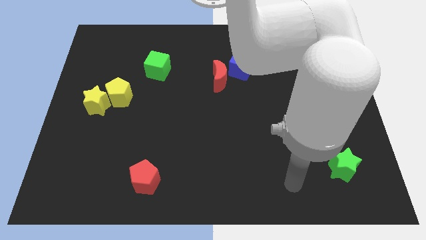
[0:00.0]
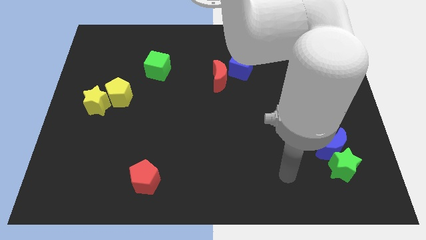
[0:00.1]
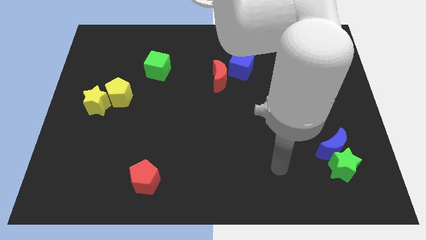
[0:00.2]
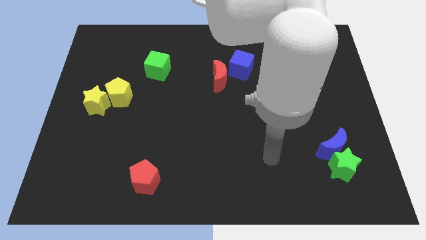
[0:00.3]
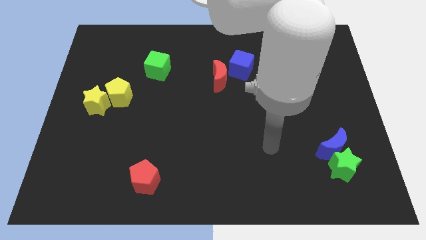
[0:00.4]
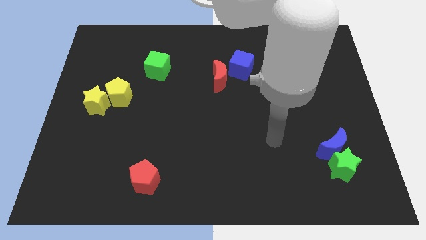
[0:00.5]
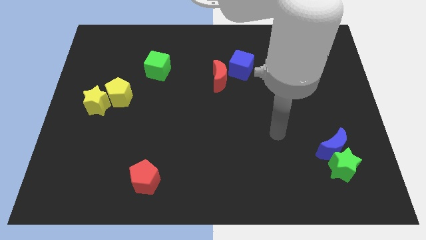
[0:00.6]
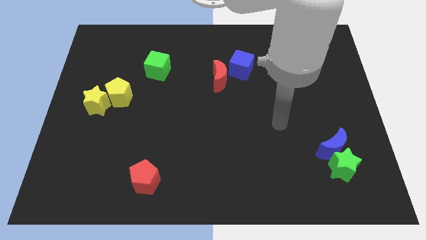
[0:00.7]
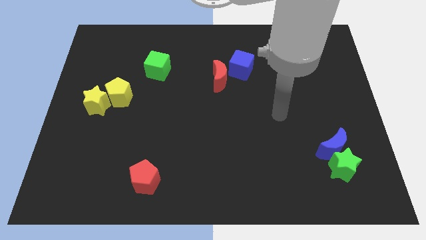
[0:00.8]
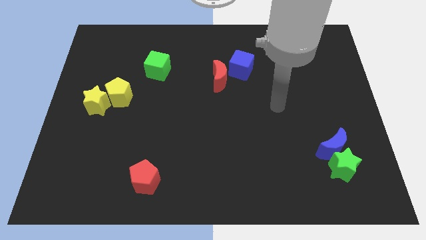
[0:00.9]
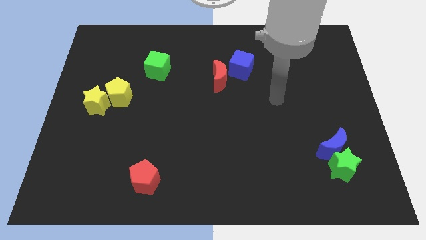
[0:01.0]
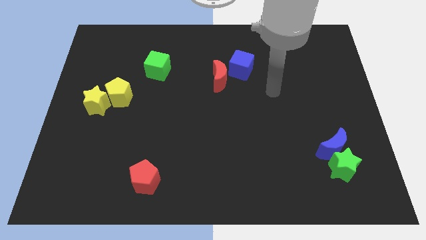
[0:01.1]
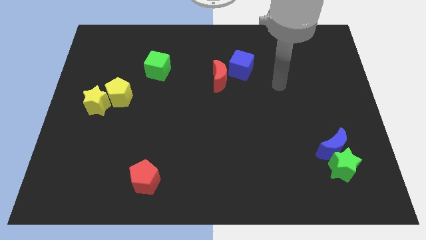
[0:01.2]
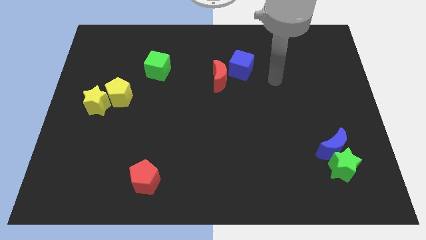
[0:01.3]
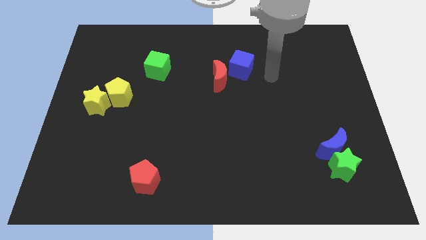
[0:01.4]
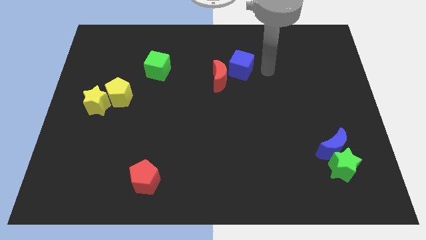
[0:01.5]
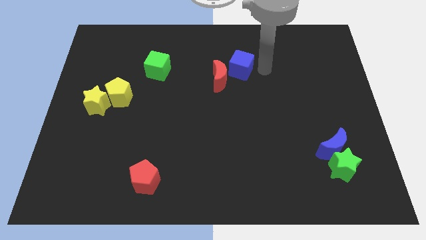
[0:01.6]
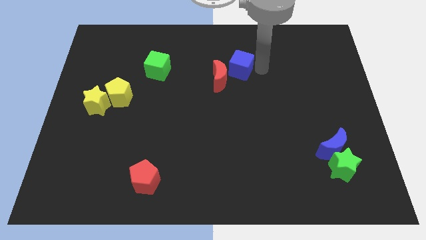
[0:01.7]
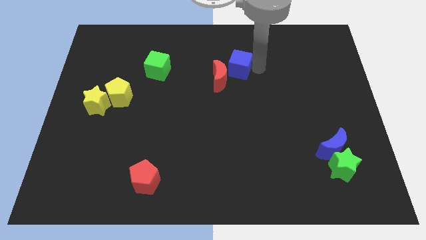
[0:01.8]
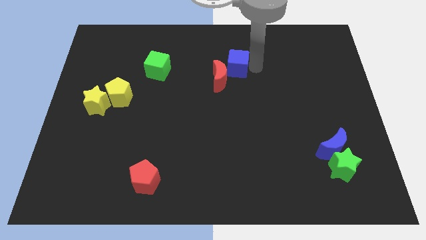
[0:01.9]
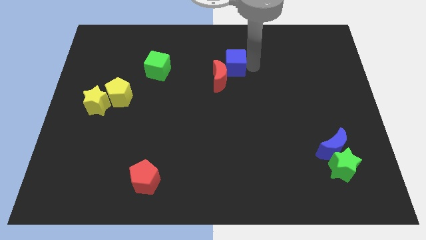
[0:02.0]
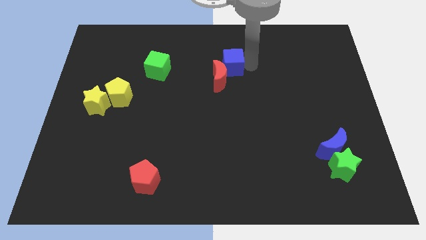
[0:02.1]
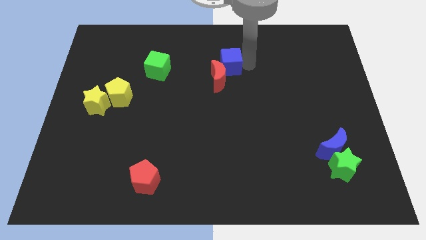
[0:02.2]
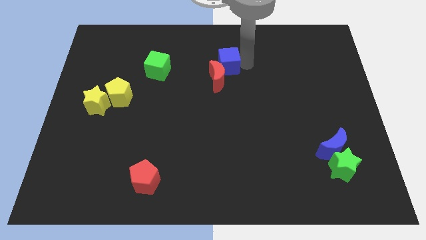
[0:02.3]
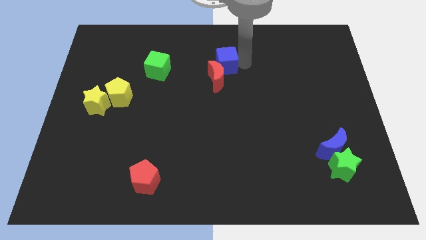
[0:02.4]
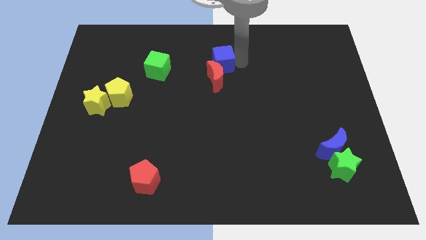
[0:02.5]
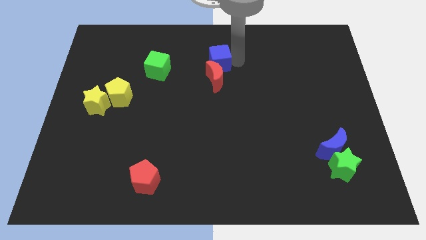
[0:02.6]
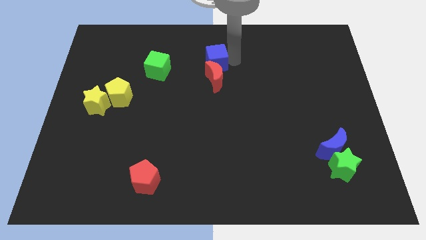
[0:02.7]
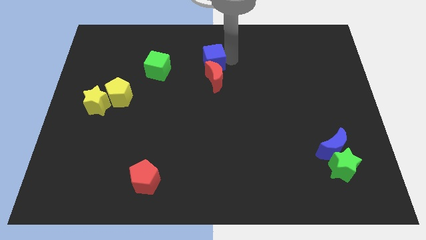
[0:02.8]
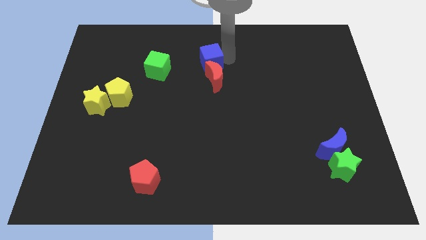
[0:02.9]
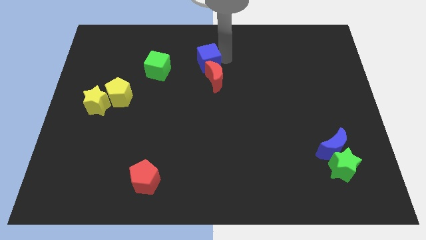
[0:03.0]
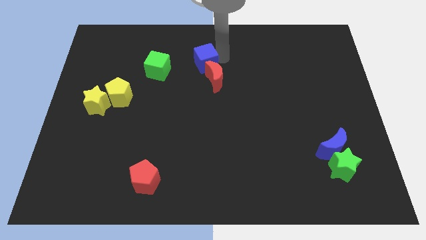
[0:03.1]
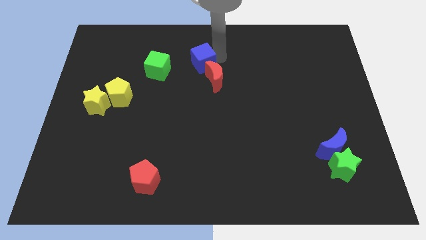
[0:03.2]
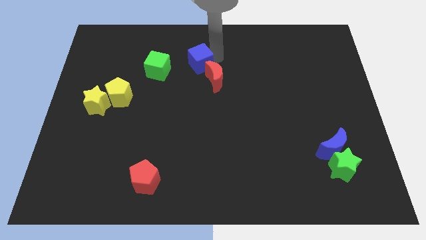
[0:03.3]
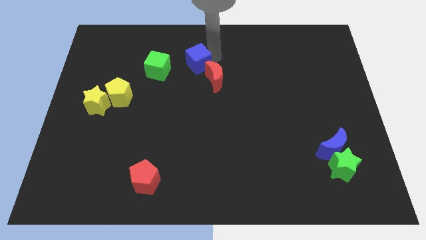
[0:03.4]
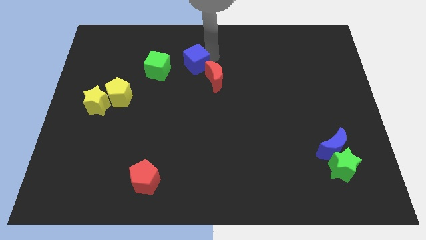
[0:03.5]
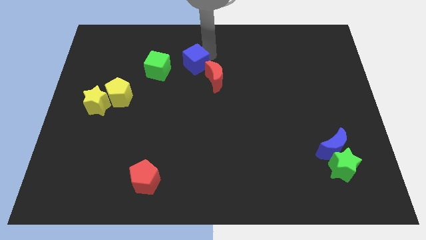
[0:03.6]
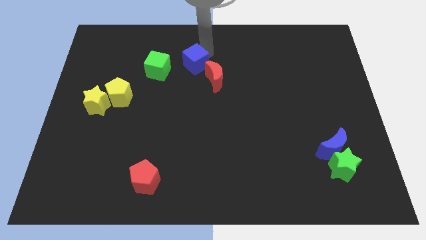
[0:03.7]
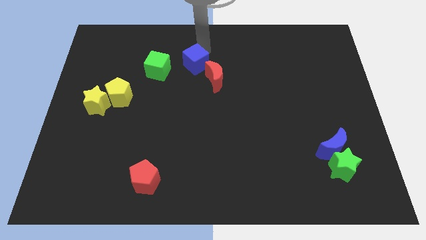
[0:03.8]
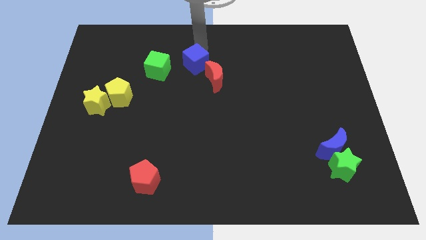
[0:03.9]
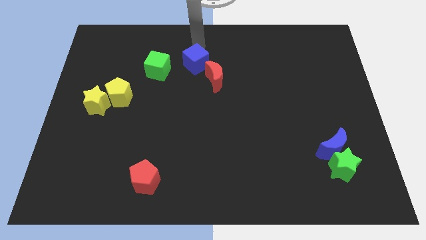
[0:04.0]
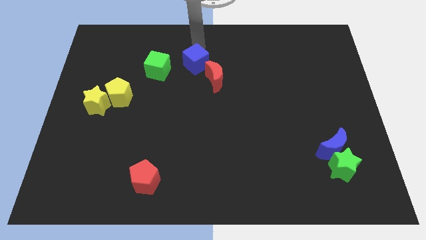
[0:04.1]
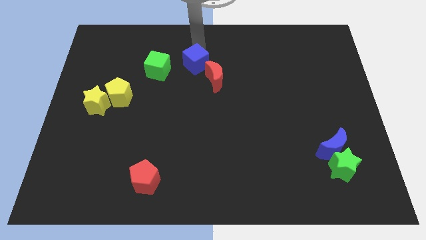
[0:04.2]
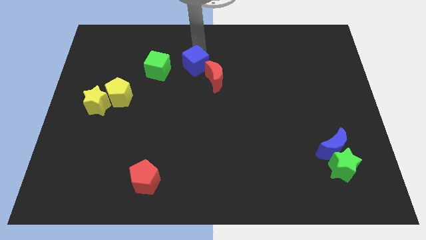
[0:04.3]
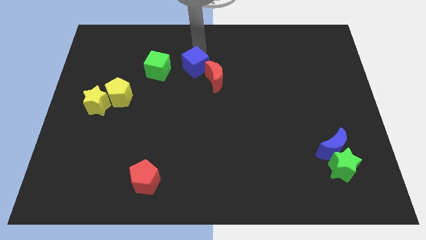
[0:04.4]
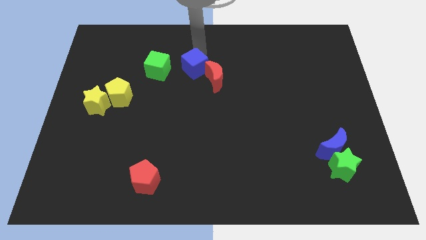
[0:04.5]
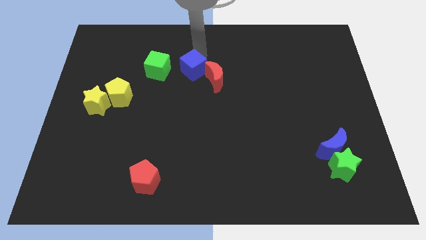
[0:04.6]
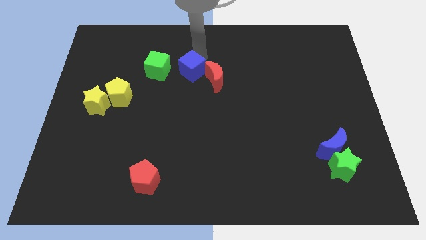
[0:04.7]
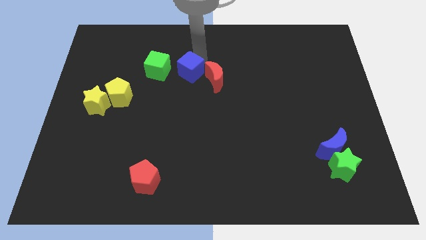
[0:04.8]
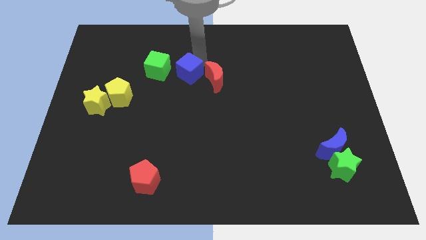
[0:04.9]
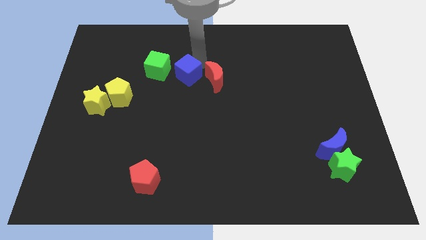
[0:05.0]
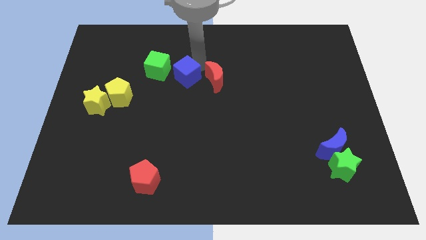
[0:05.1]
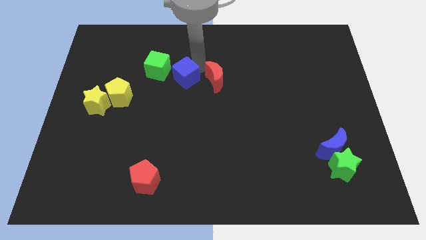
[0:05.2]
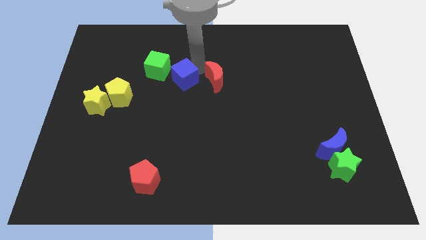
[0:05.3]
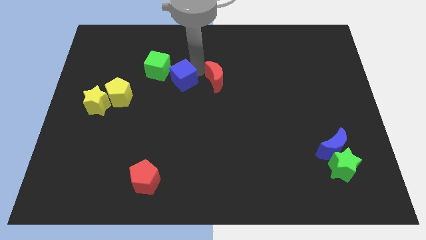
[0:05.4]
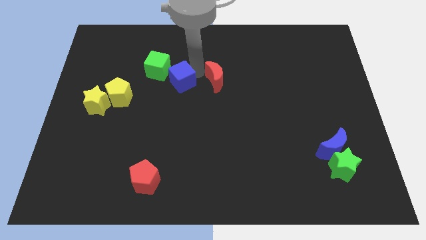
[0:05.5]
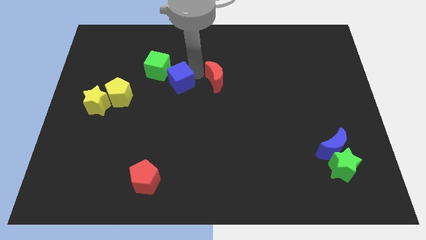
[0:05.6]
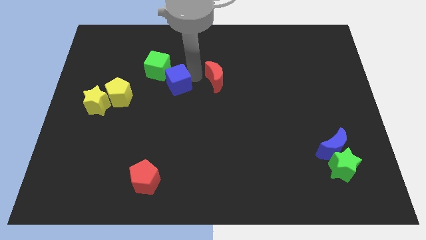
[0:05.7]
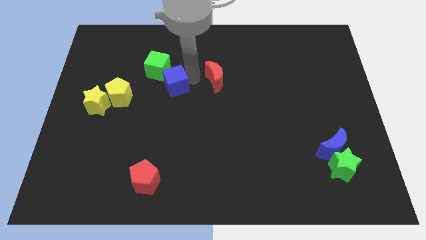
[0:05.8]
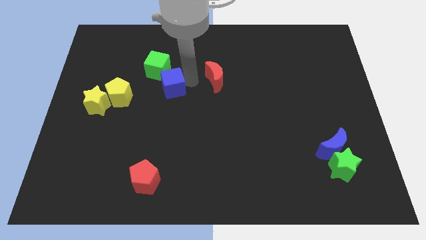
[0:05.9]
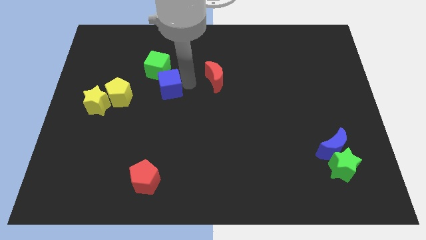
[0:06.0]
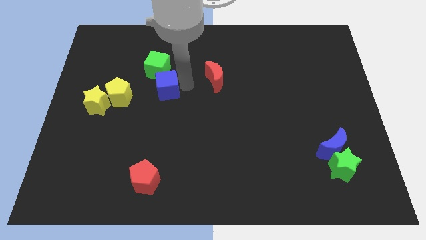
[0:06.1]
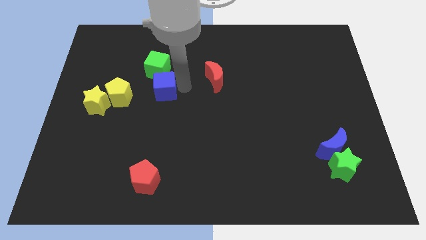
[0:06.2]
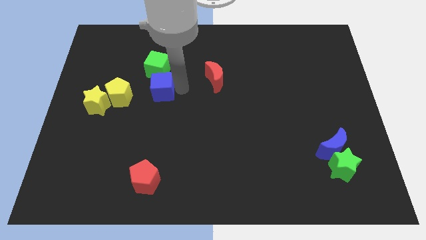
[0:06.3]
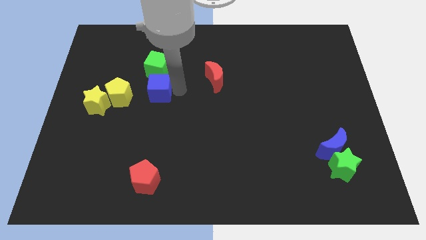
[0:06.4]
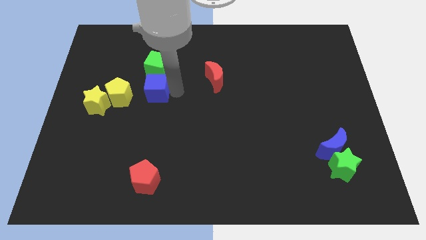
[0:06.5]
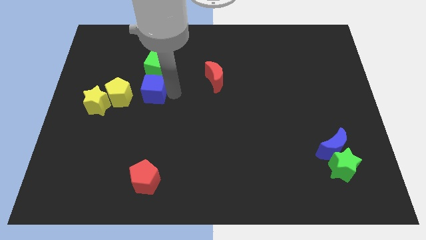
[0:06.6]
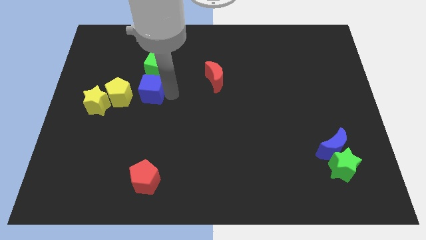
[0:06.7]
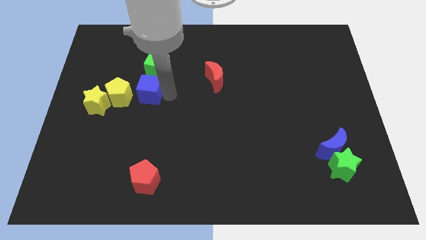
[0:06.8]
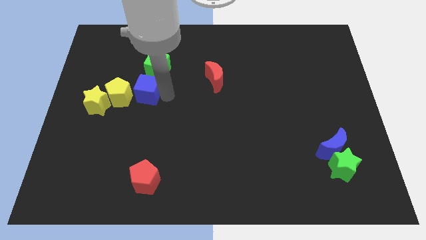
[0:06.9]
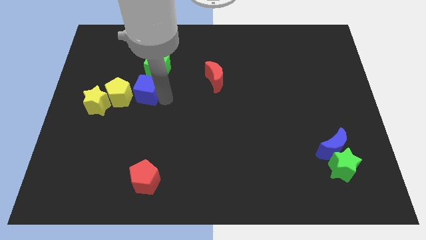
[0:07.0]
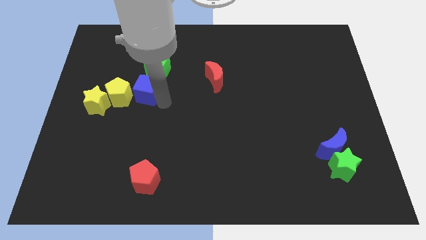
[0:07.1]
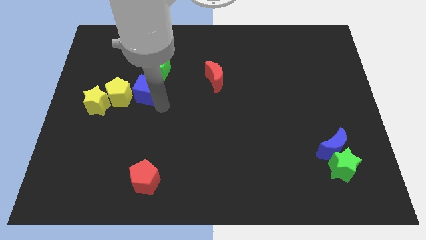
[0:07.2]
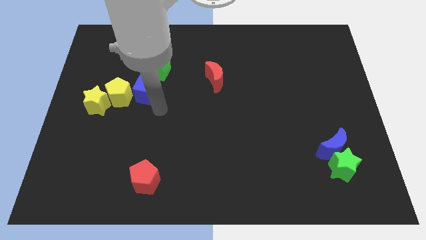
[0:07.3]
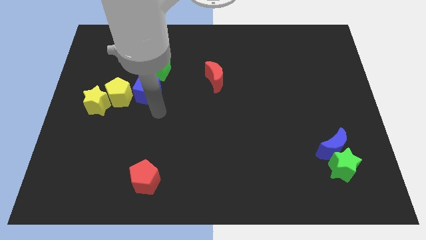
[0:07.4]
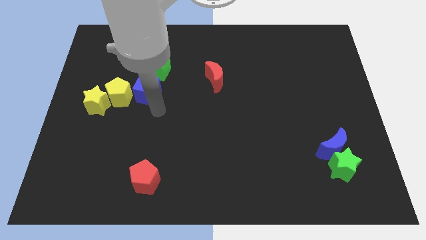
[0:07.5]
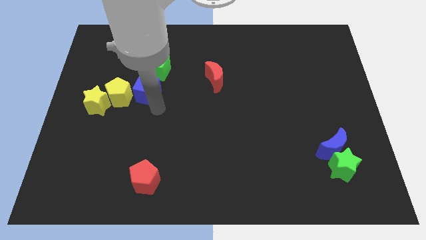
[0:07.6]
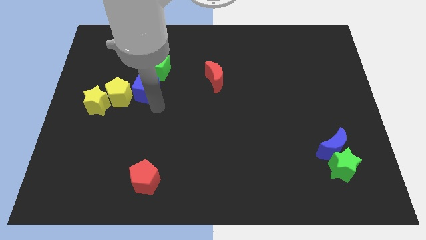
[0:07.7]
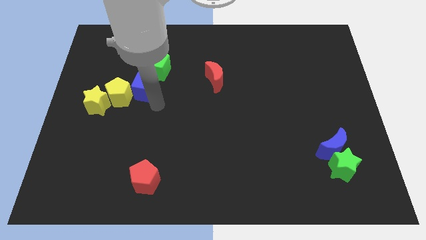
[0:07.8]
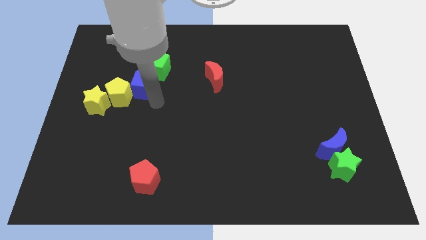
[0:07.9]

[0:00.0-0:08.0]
move the blue cube to the top right side of the yellow star
